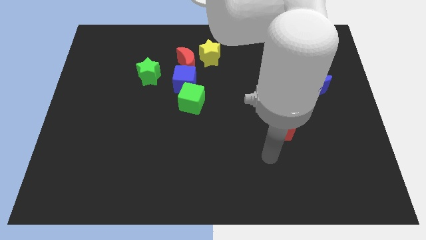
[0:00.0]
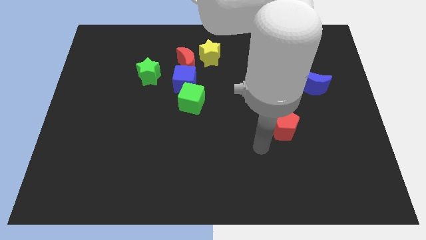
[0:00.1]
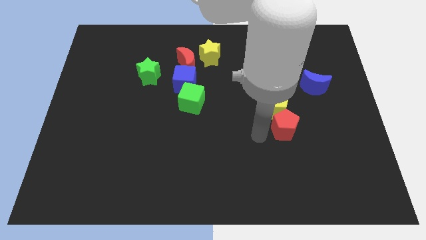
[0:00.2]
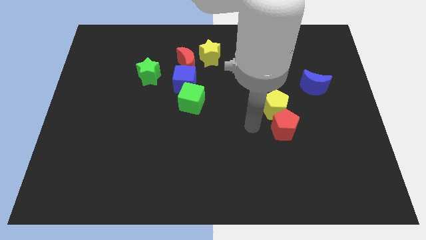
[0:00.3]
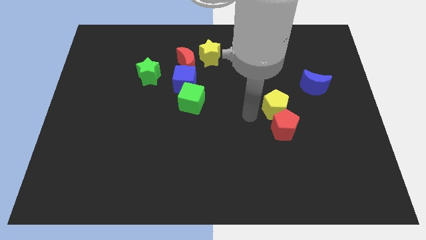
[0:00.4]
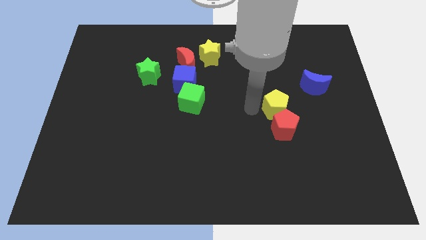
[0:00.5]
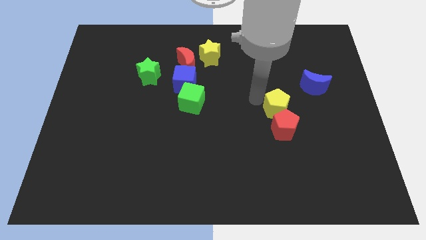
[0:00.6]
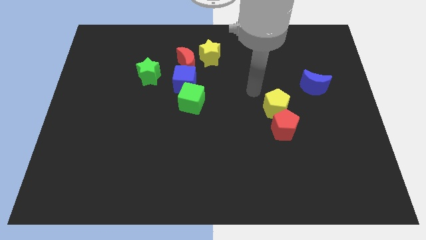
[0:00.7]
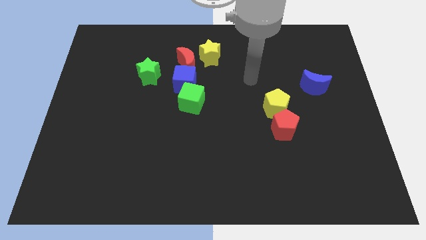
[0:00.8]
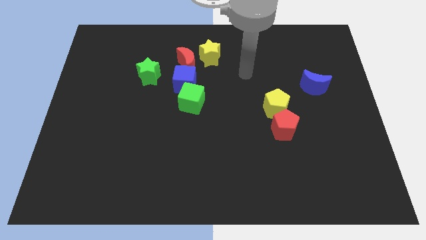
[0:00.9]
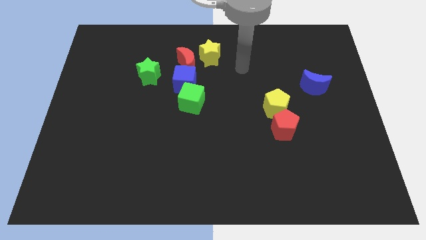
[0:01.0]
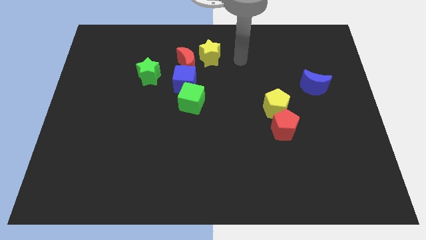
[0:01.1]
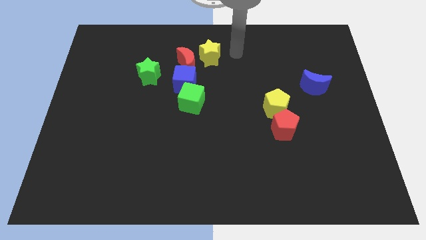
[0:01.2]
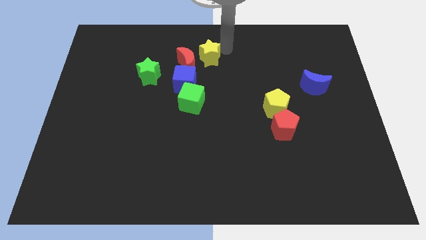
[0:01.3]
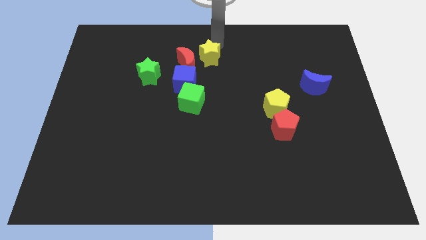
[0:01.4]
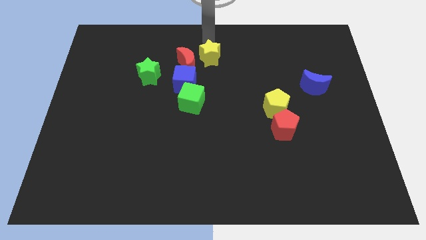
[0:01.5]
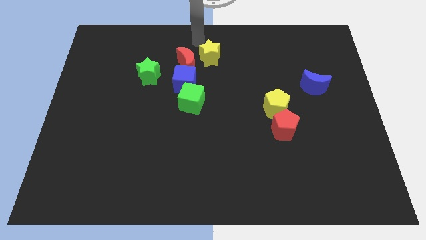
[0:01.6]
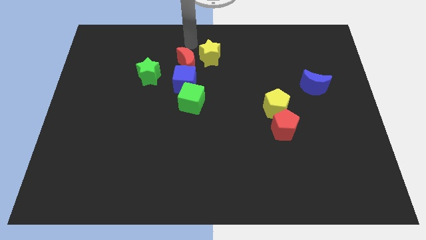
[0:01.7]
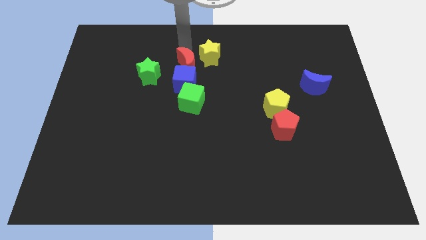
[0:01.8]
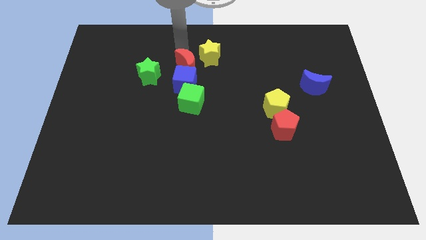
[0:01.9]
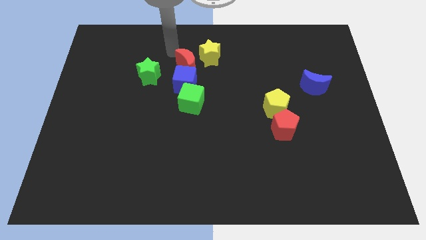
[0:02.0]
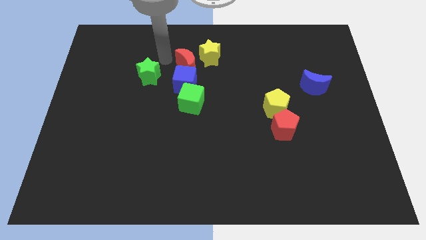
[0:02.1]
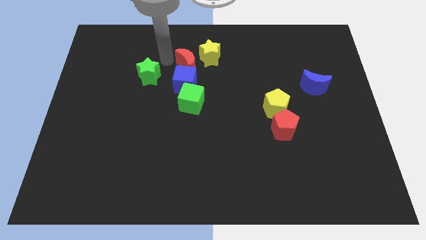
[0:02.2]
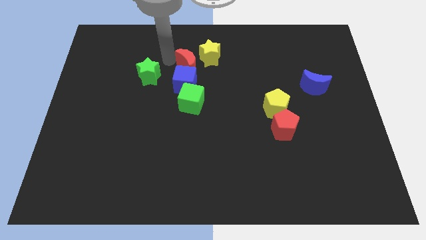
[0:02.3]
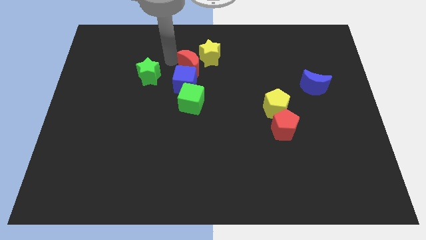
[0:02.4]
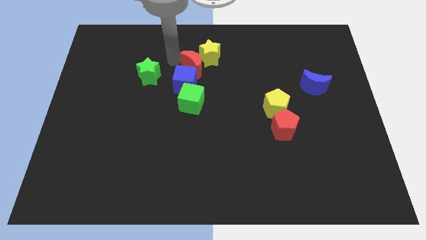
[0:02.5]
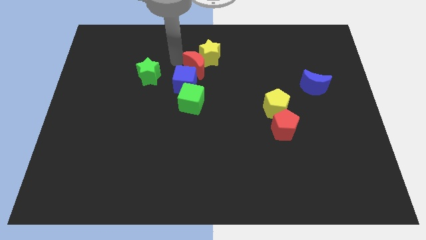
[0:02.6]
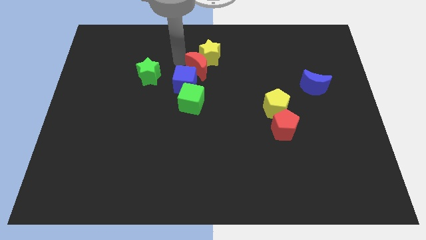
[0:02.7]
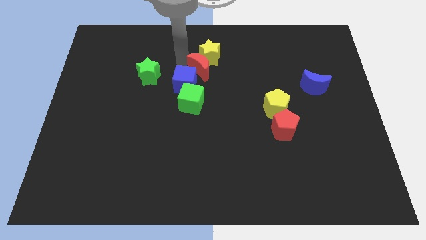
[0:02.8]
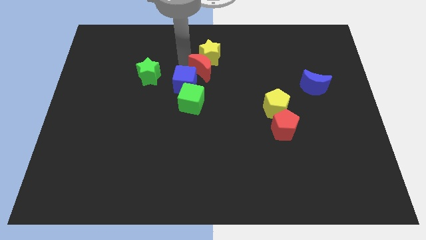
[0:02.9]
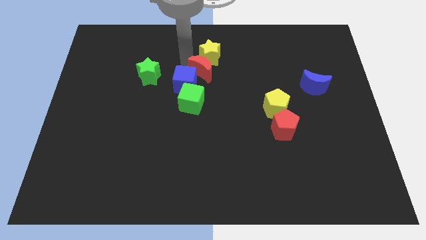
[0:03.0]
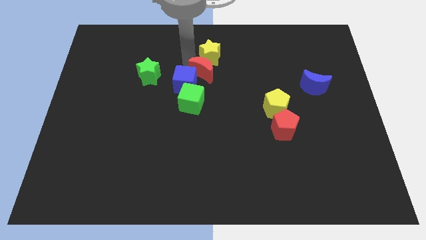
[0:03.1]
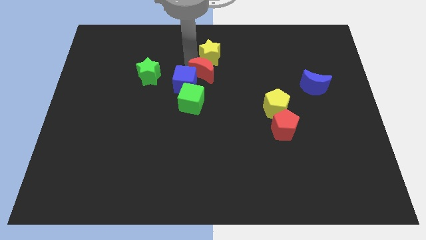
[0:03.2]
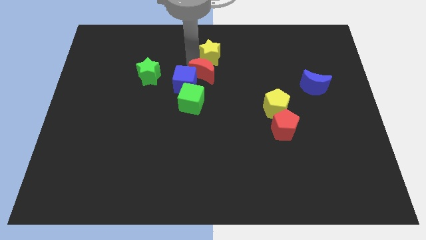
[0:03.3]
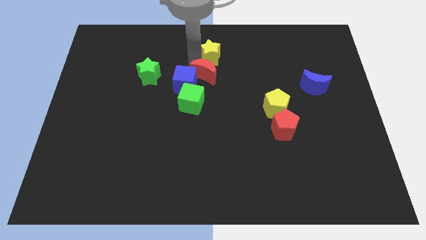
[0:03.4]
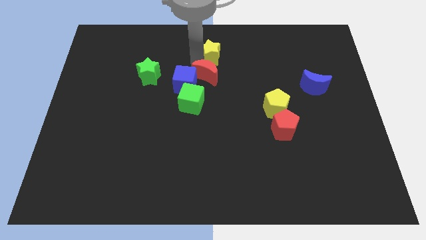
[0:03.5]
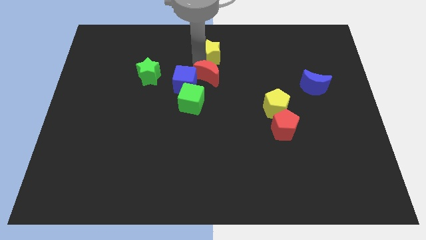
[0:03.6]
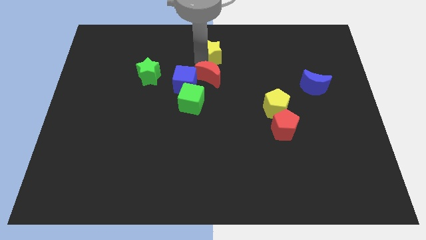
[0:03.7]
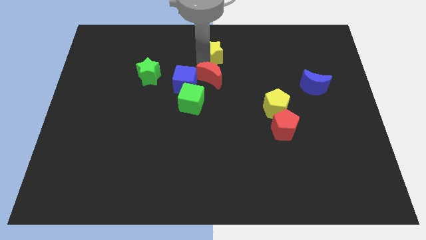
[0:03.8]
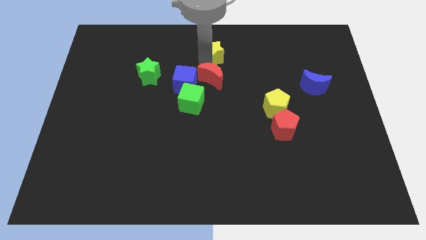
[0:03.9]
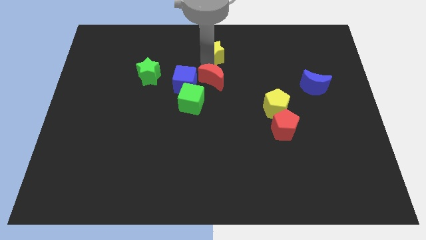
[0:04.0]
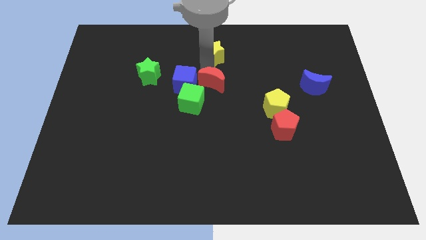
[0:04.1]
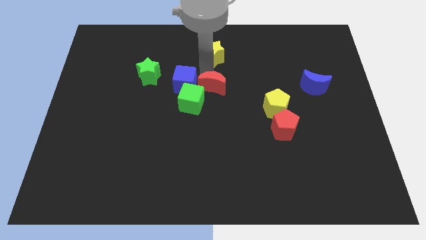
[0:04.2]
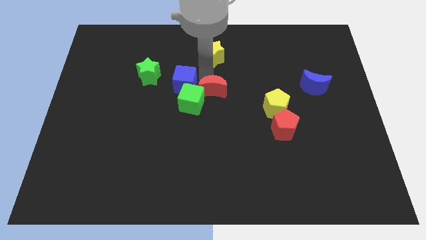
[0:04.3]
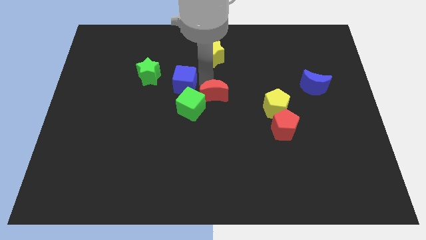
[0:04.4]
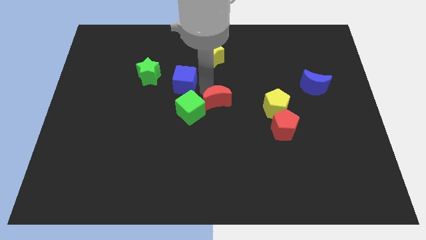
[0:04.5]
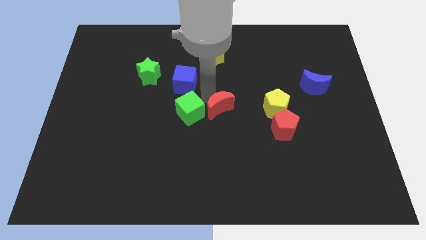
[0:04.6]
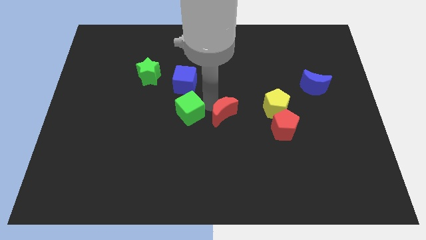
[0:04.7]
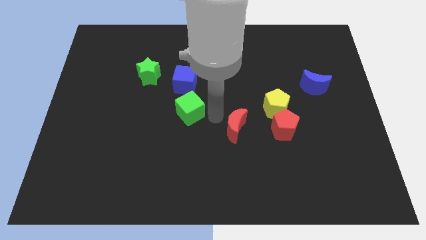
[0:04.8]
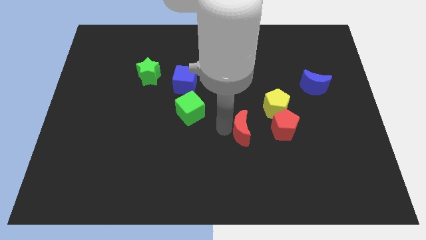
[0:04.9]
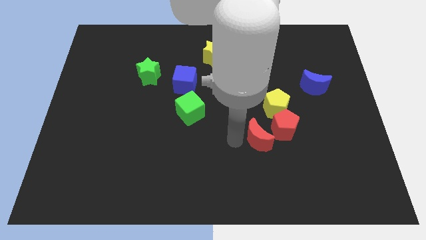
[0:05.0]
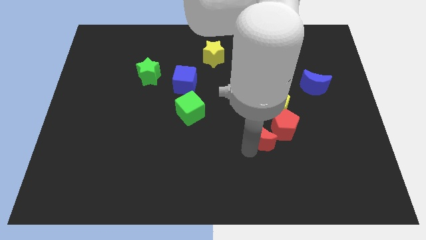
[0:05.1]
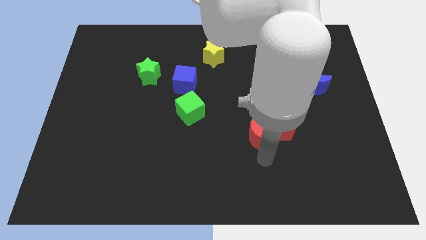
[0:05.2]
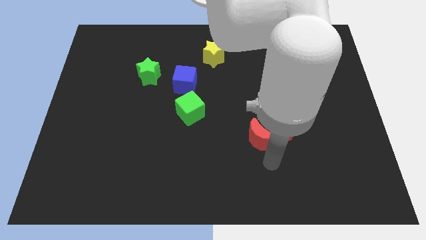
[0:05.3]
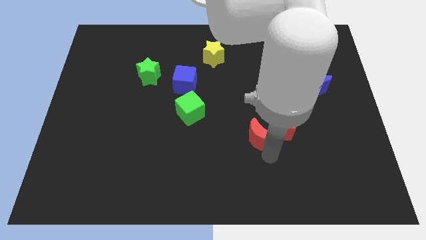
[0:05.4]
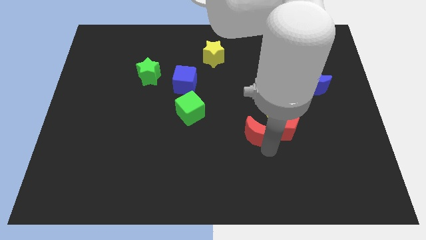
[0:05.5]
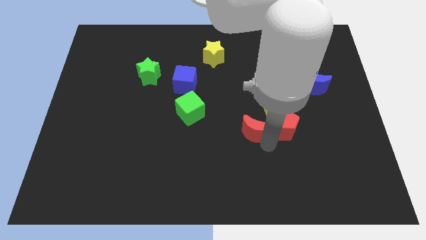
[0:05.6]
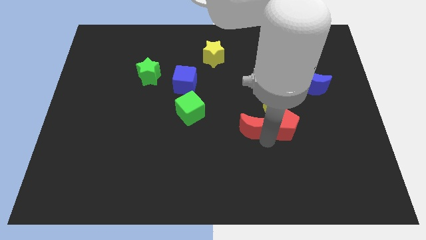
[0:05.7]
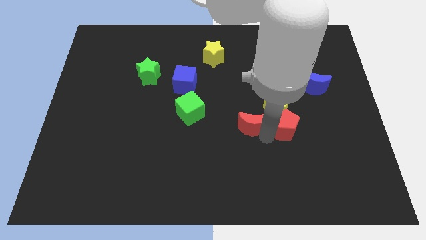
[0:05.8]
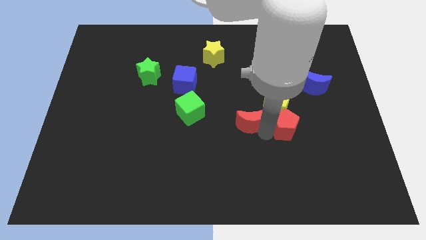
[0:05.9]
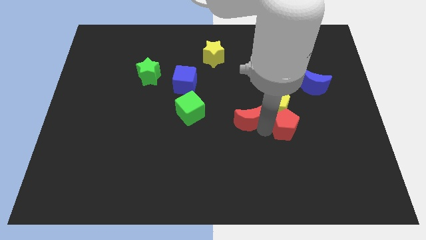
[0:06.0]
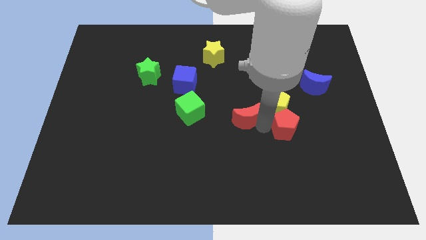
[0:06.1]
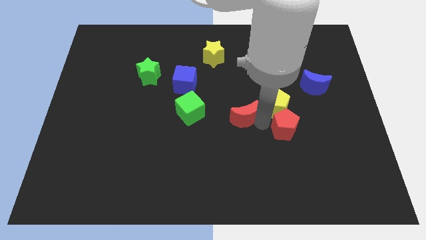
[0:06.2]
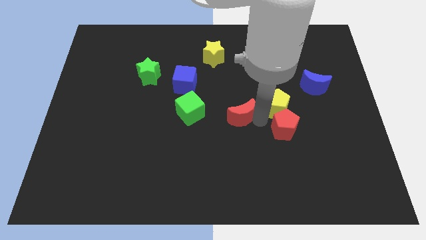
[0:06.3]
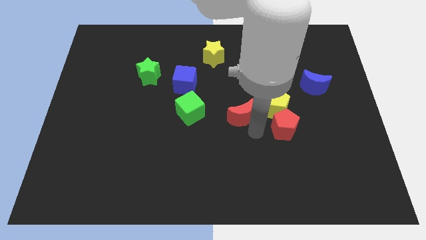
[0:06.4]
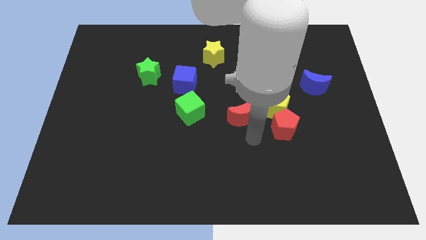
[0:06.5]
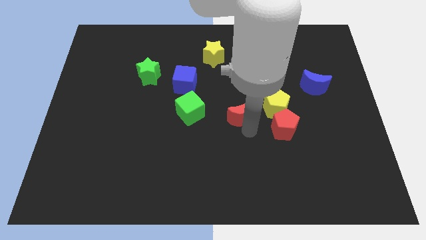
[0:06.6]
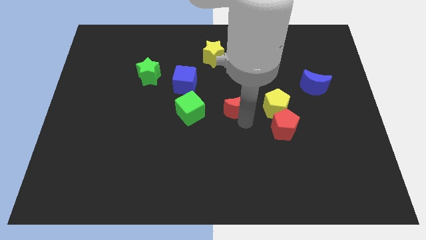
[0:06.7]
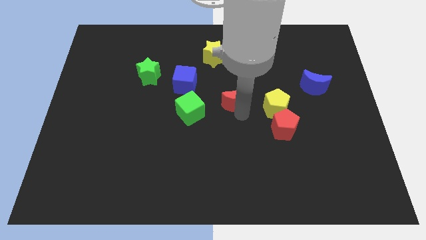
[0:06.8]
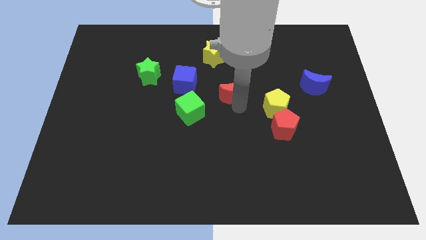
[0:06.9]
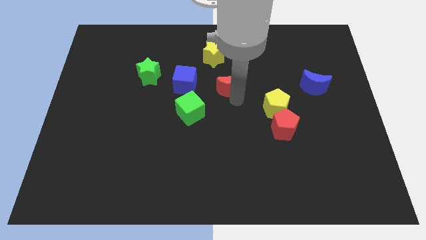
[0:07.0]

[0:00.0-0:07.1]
move the red moon right slightly

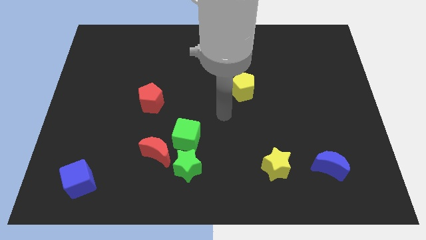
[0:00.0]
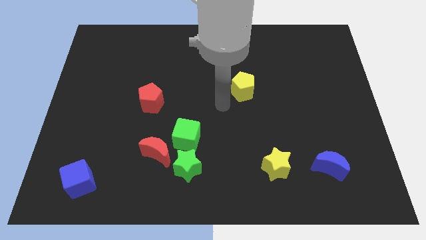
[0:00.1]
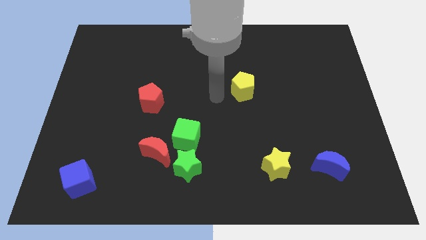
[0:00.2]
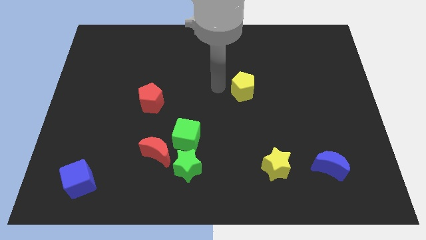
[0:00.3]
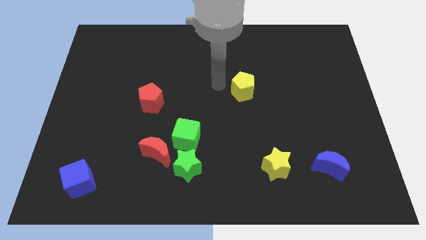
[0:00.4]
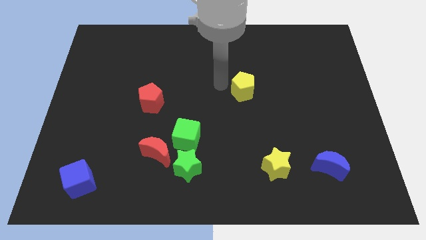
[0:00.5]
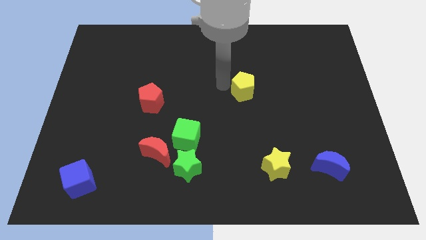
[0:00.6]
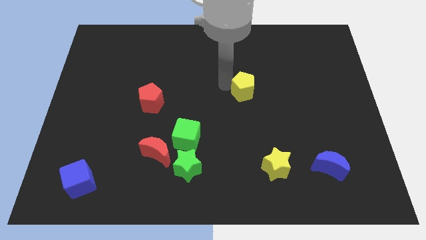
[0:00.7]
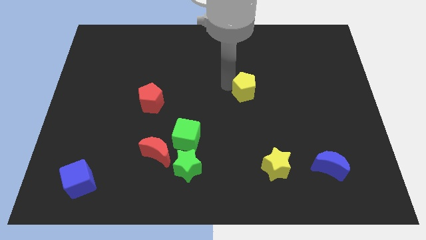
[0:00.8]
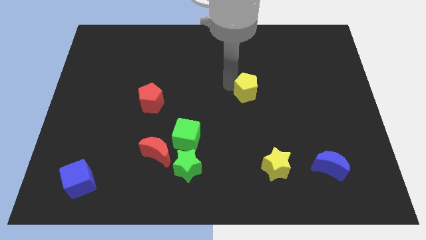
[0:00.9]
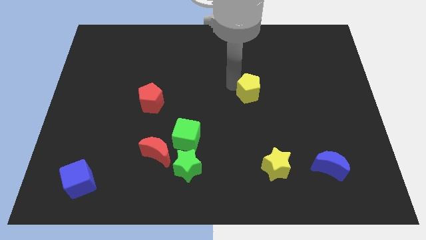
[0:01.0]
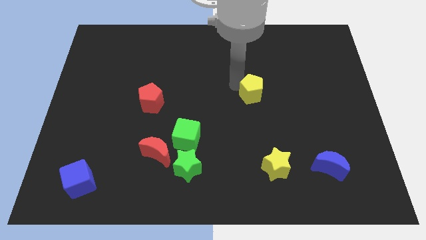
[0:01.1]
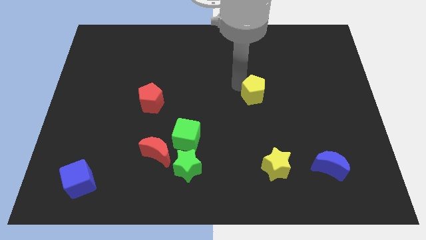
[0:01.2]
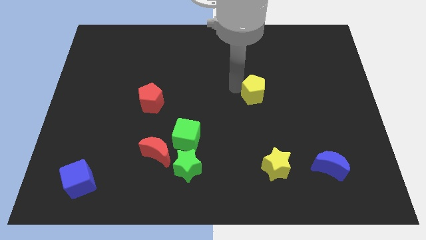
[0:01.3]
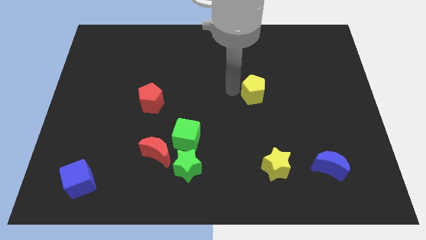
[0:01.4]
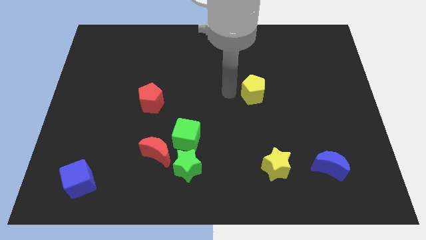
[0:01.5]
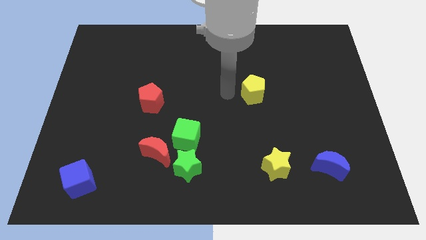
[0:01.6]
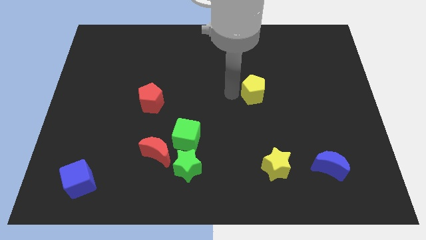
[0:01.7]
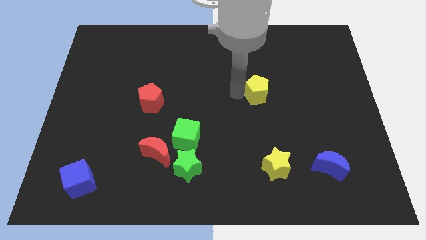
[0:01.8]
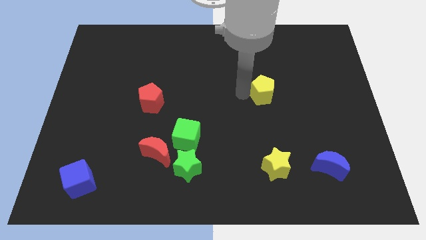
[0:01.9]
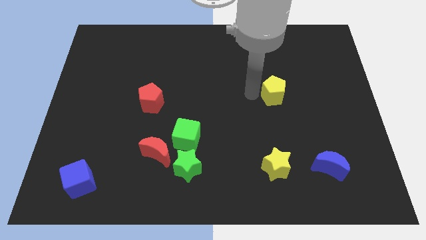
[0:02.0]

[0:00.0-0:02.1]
slightly move the yellow pentagon to the right
